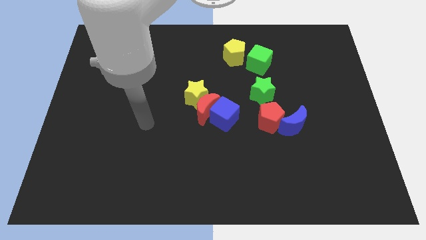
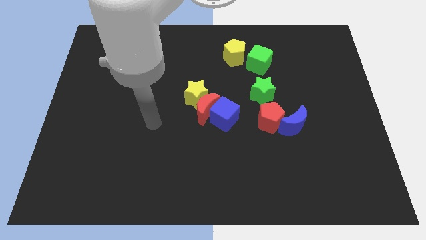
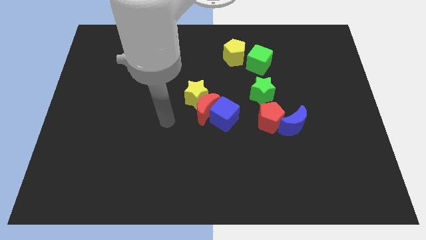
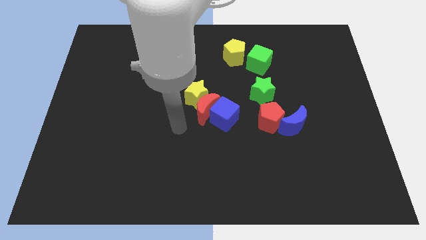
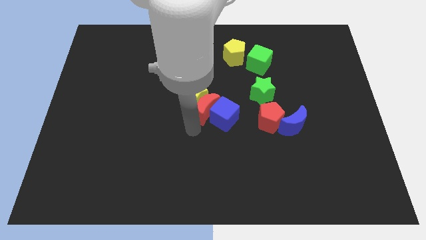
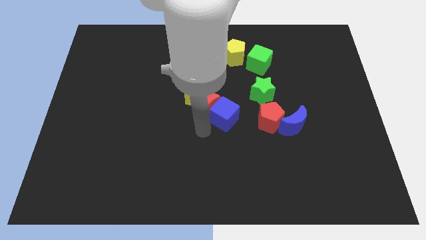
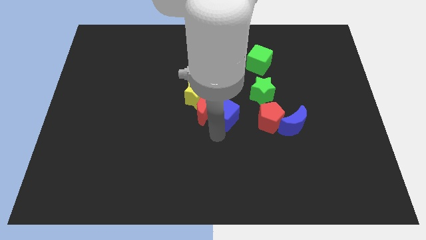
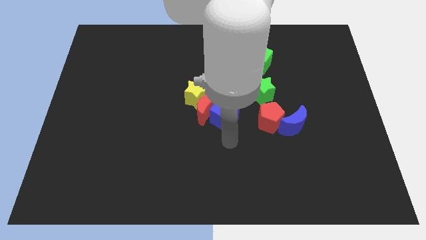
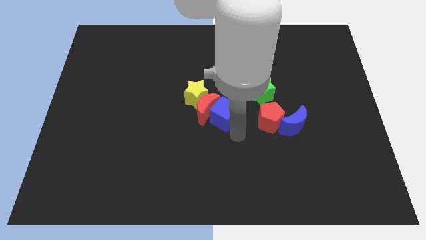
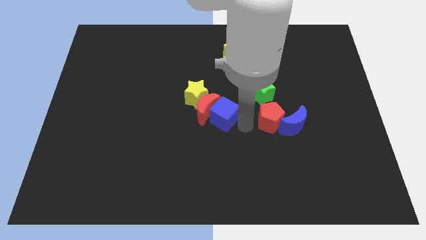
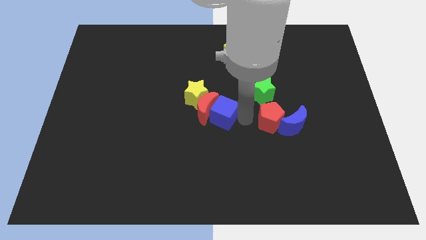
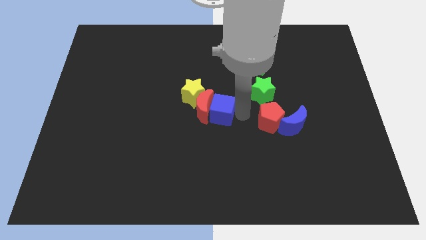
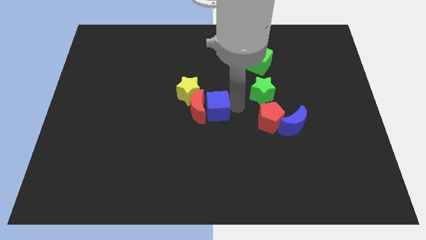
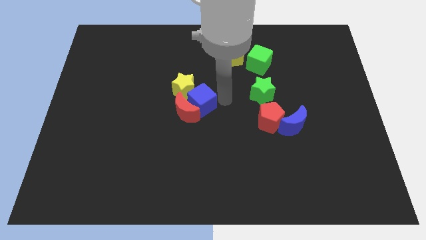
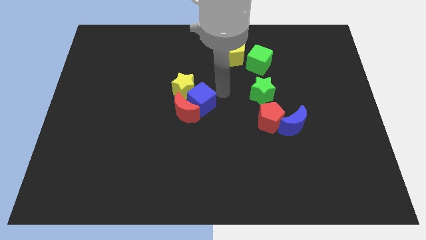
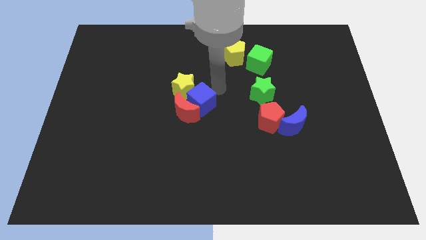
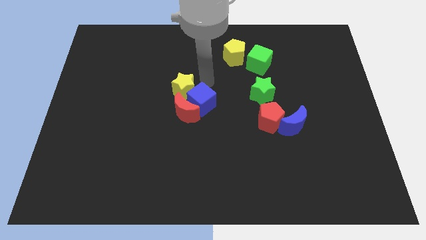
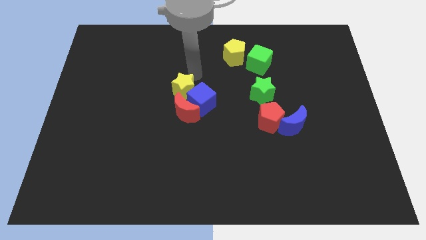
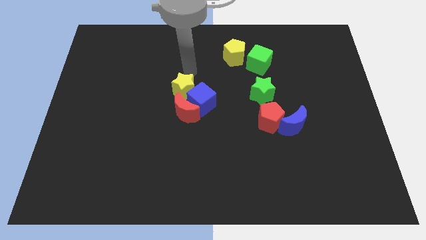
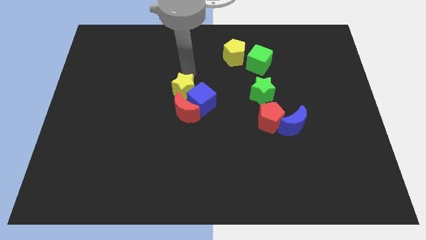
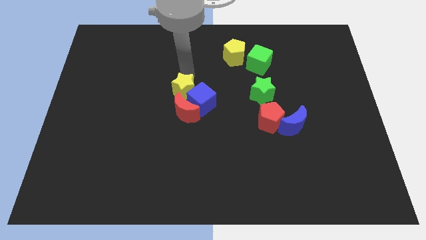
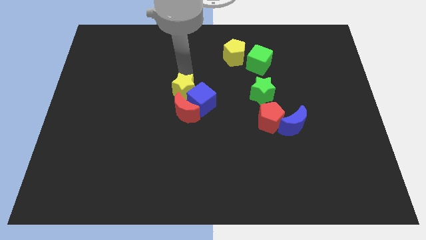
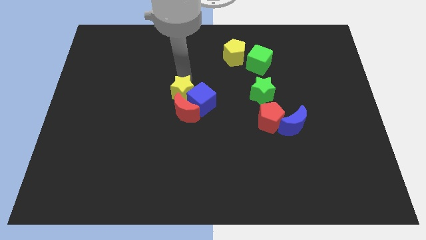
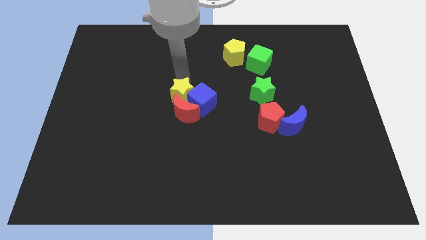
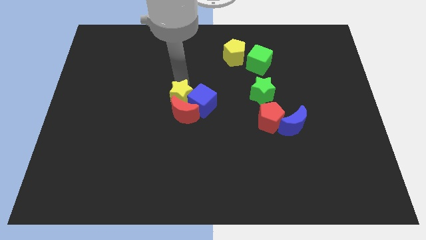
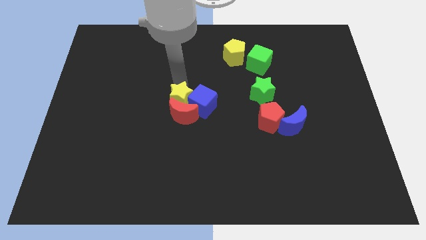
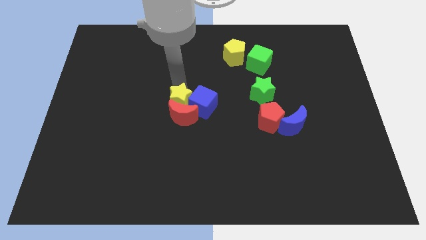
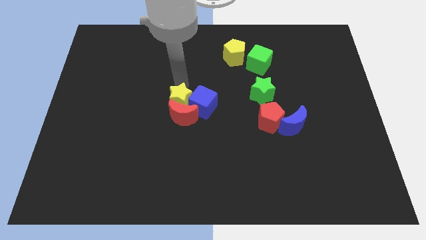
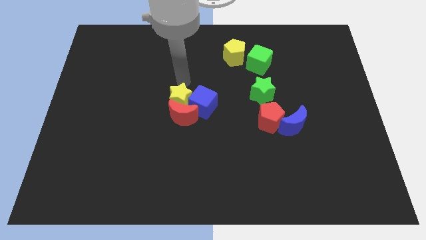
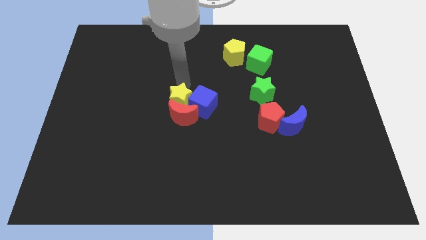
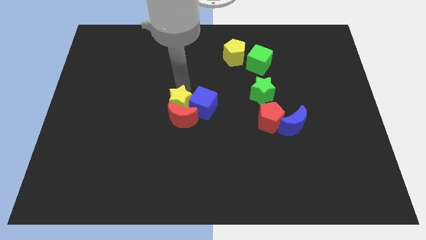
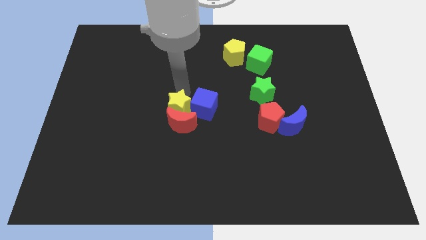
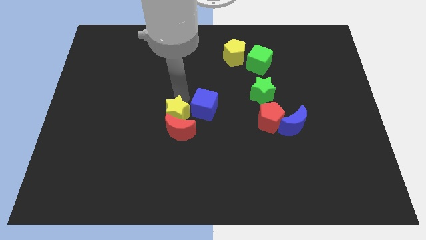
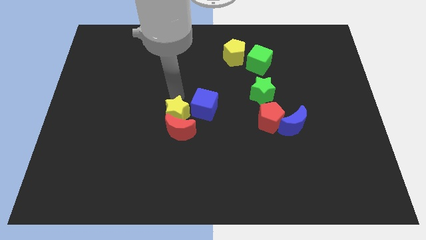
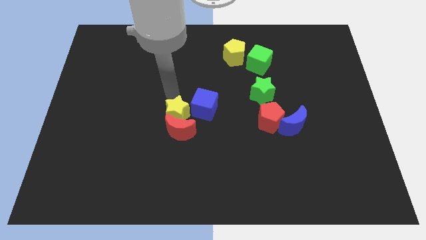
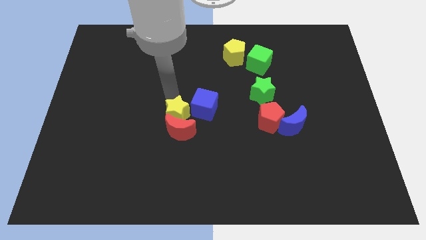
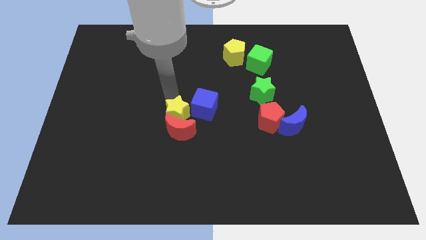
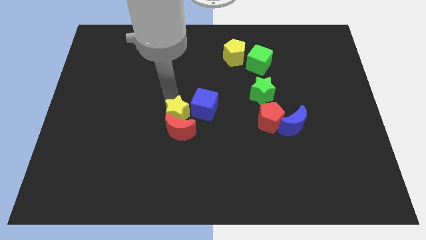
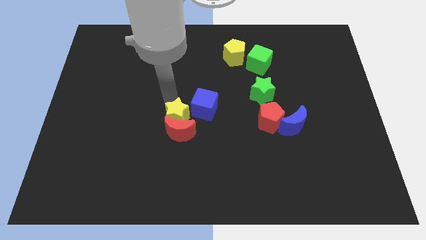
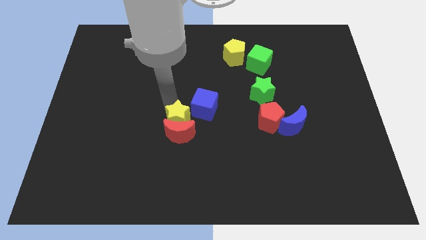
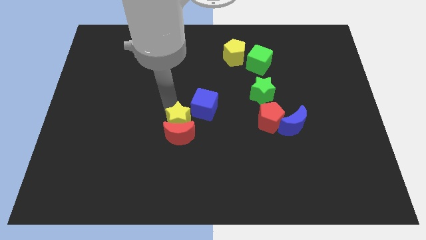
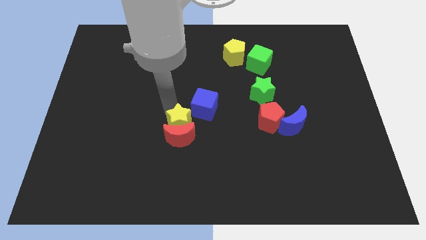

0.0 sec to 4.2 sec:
move the yellow star down slightly

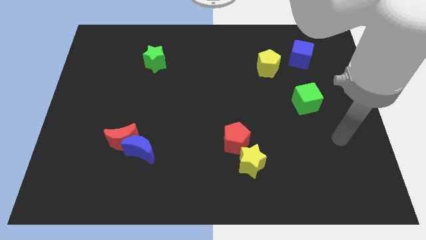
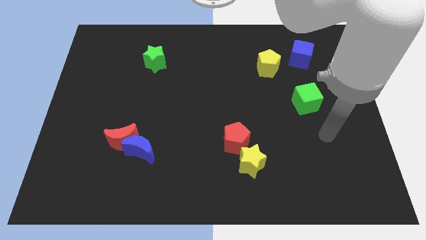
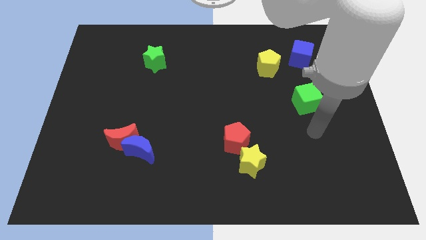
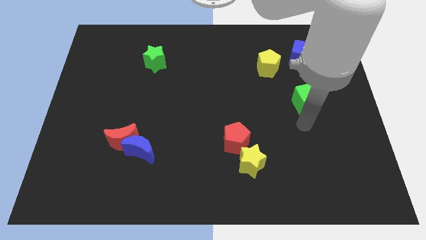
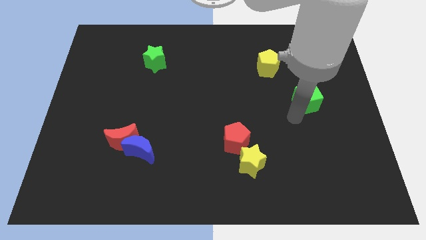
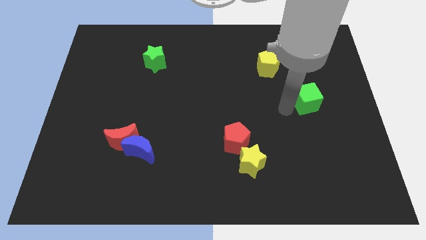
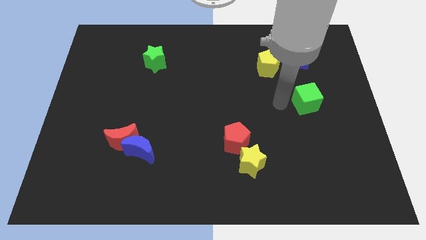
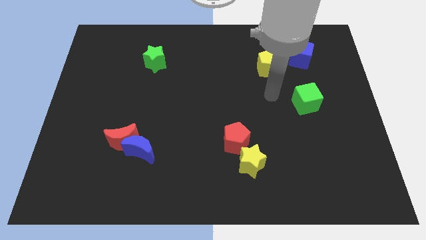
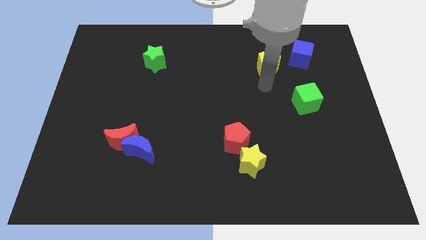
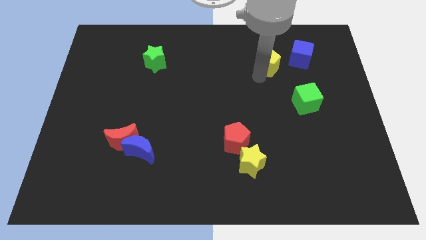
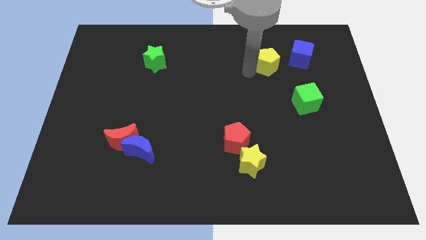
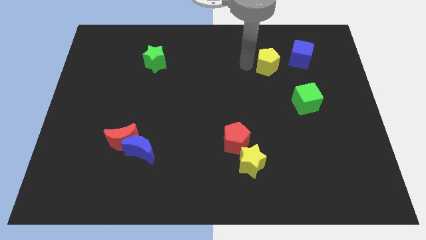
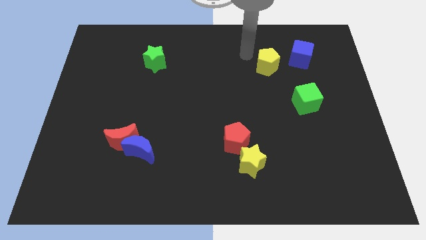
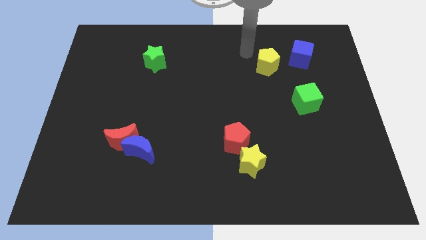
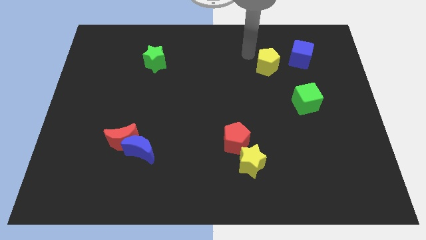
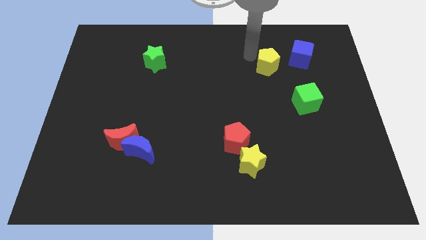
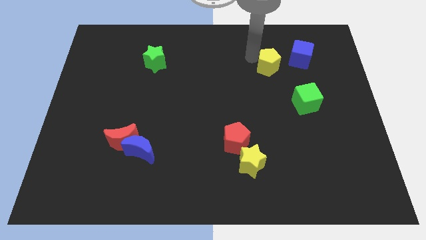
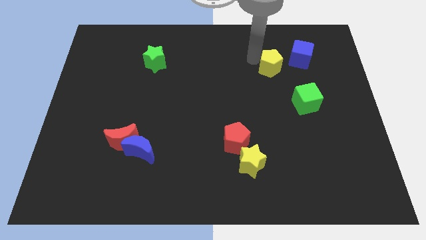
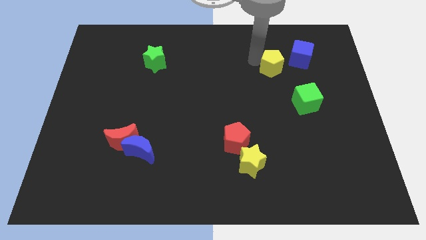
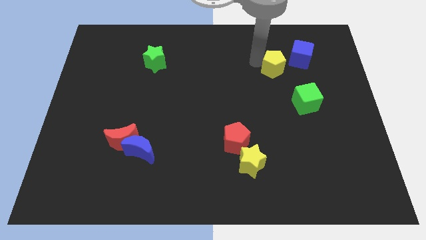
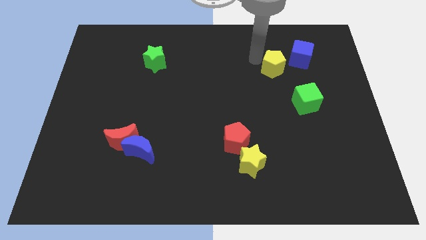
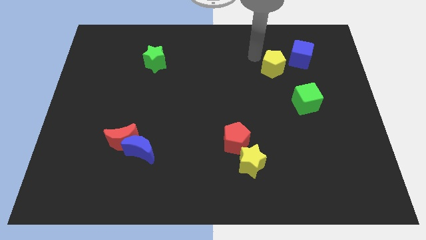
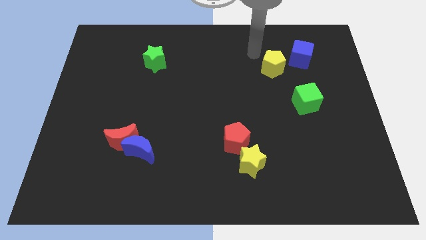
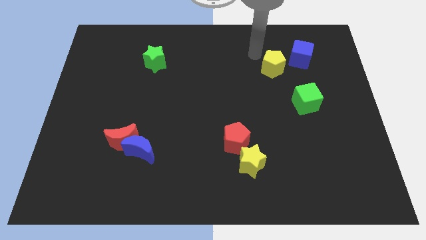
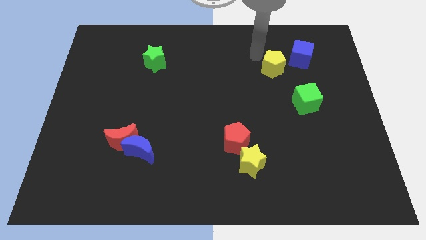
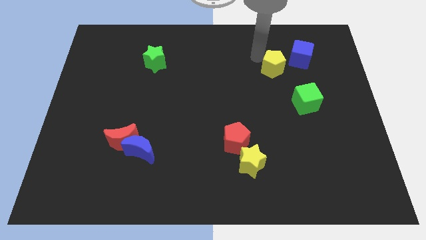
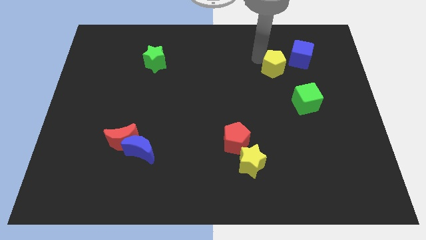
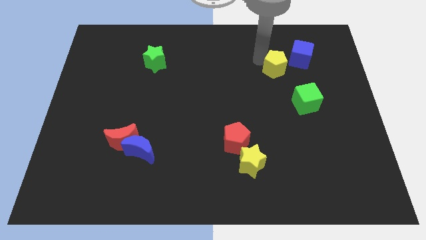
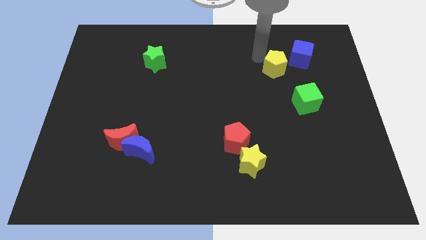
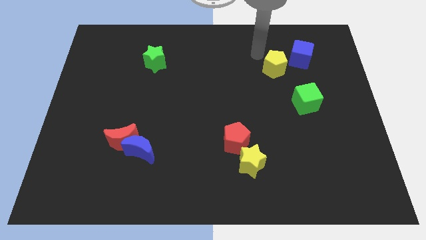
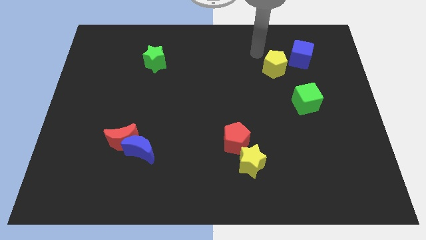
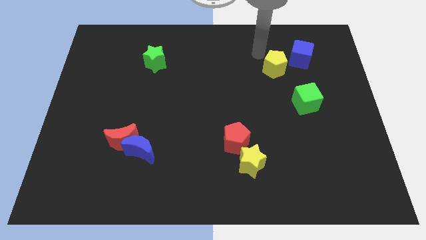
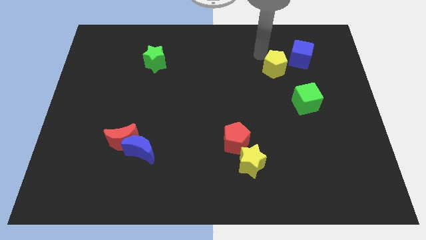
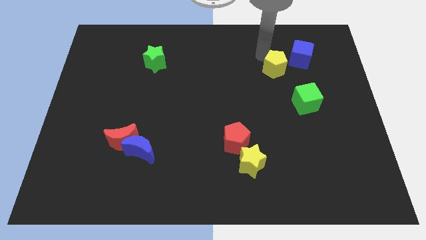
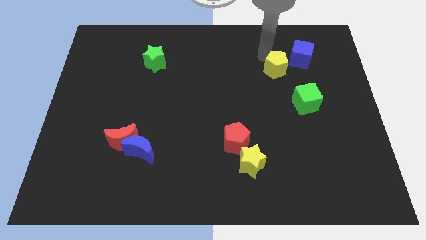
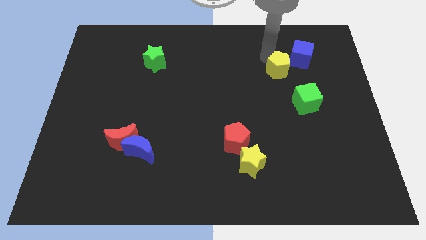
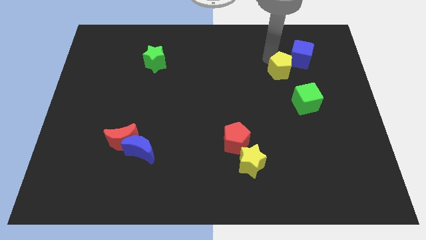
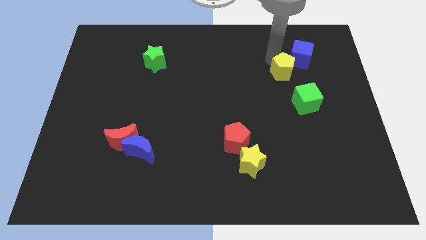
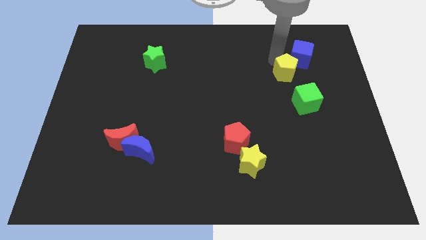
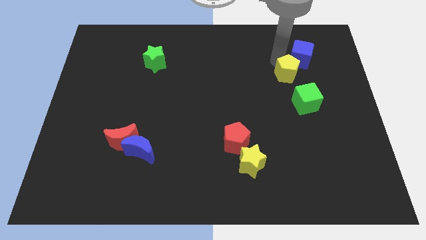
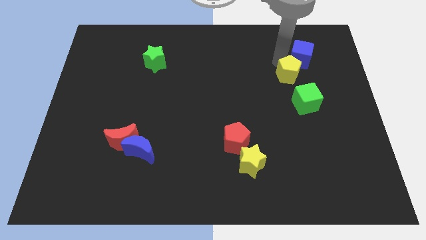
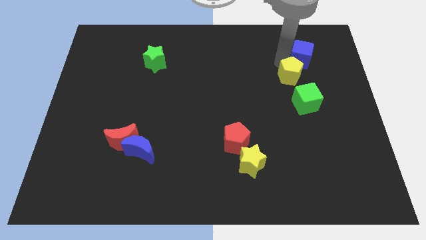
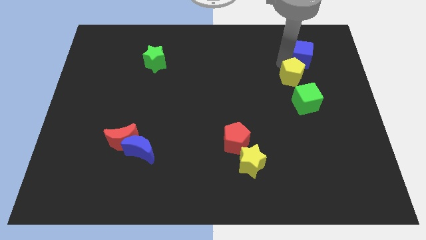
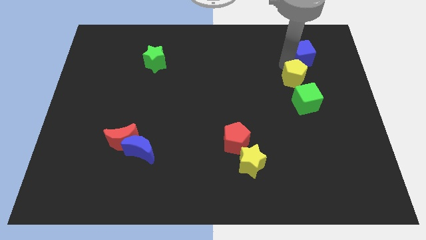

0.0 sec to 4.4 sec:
slide the yellow pentagon somewhat downwards and then right
